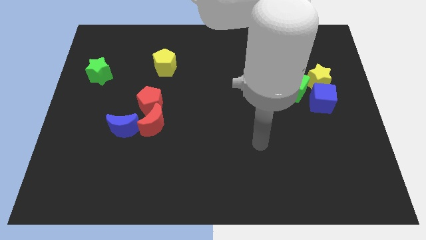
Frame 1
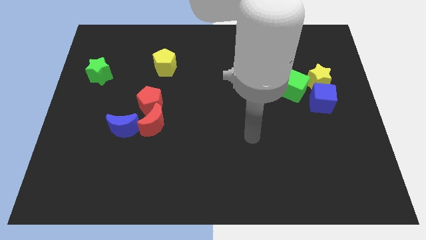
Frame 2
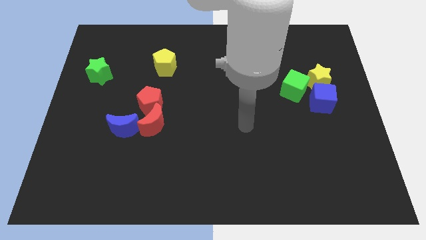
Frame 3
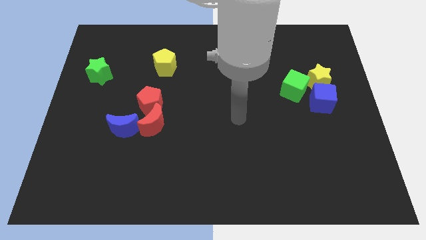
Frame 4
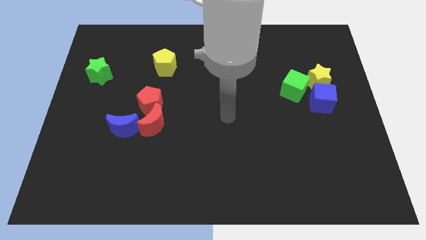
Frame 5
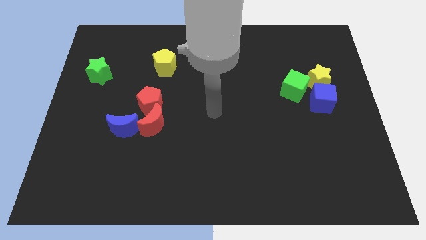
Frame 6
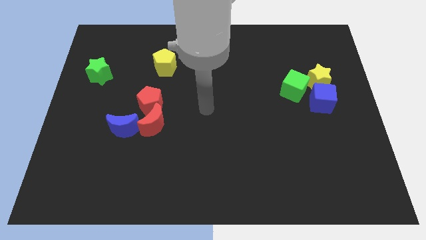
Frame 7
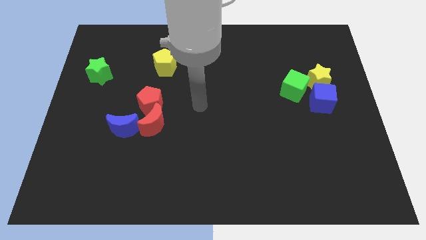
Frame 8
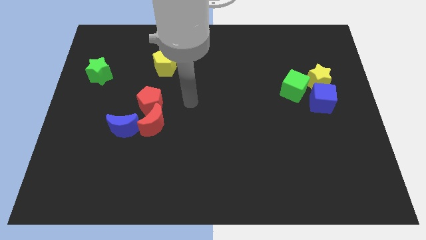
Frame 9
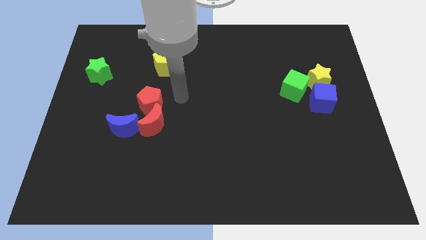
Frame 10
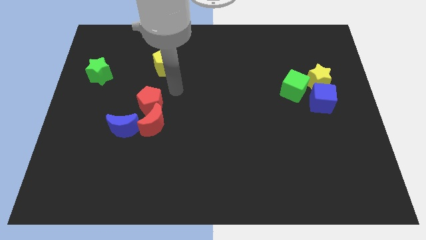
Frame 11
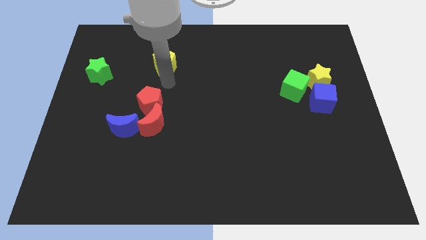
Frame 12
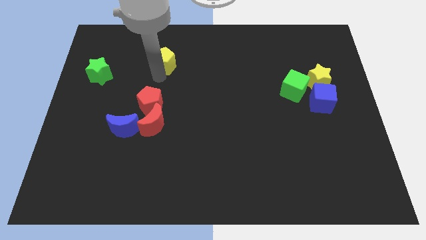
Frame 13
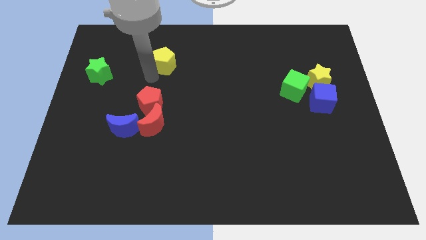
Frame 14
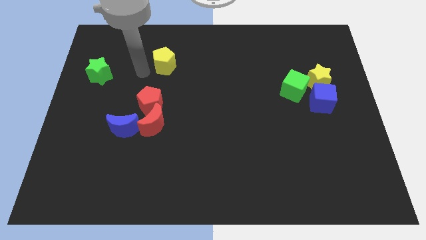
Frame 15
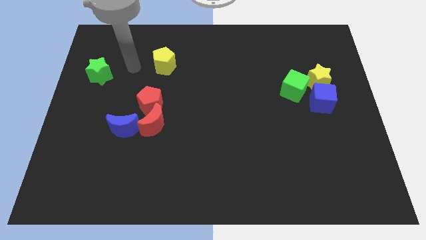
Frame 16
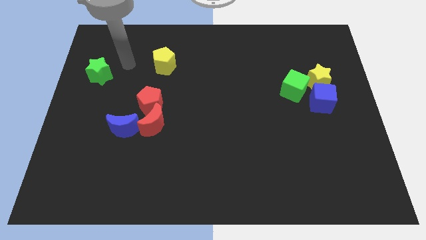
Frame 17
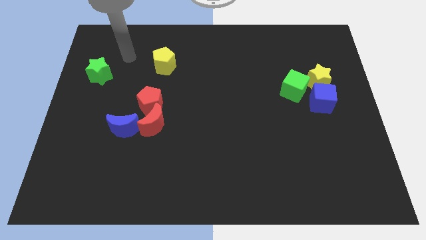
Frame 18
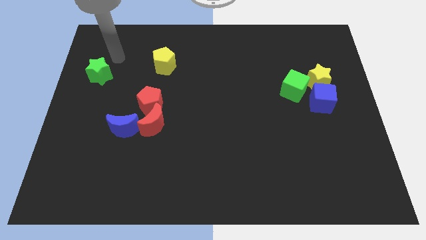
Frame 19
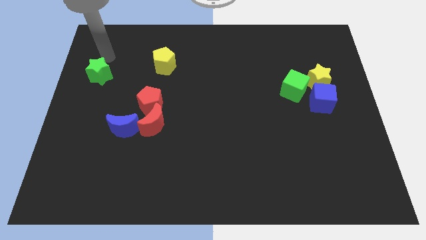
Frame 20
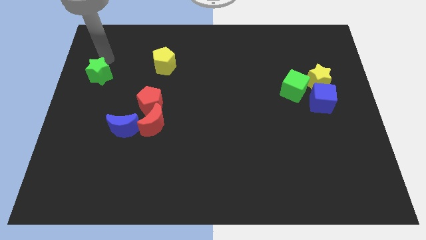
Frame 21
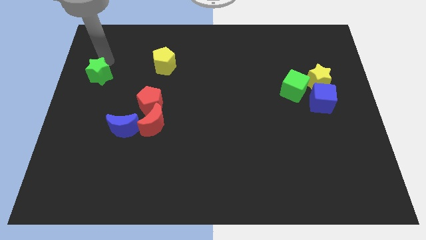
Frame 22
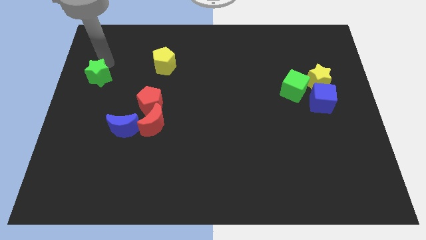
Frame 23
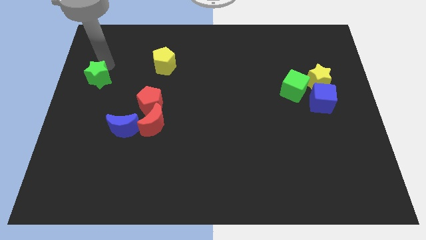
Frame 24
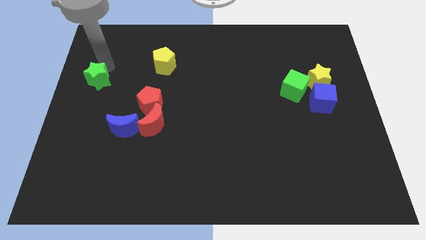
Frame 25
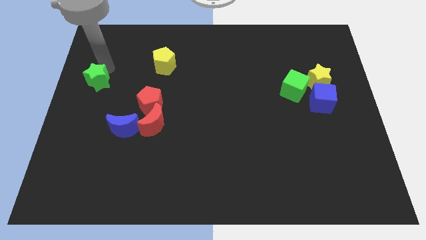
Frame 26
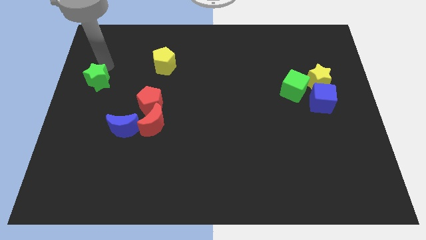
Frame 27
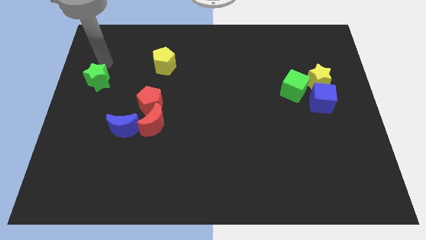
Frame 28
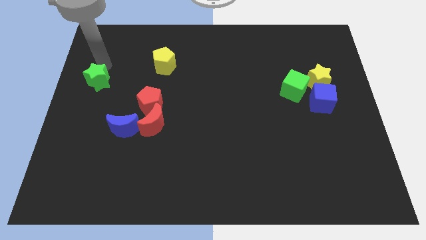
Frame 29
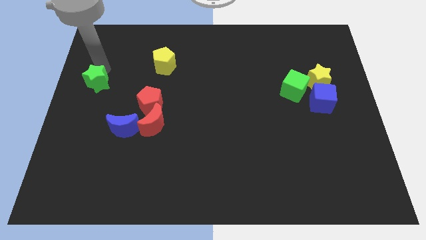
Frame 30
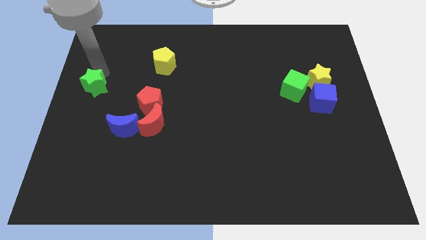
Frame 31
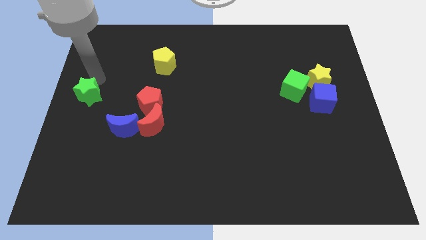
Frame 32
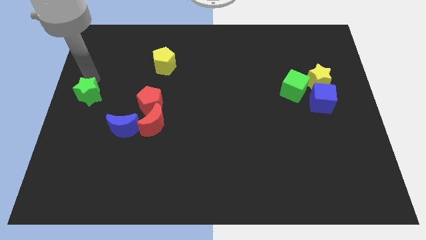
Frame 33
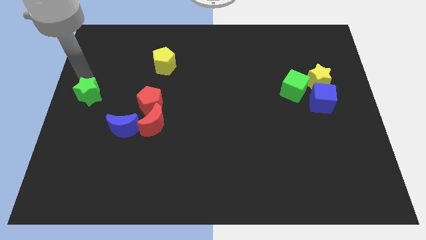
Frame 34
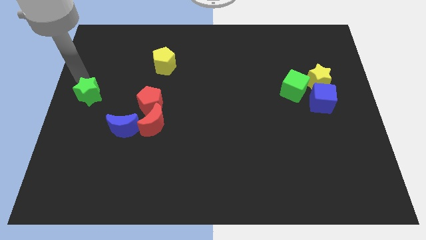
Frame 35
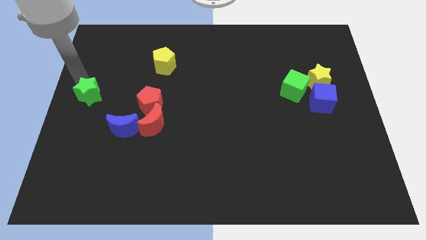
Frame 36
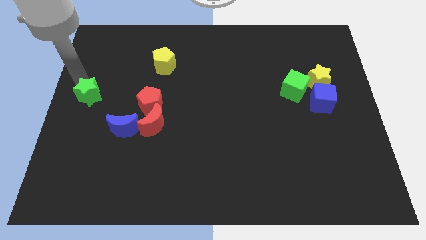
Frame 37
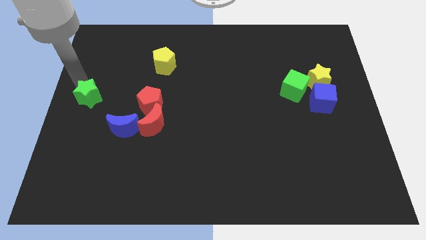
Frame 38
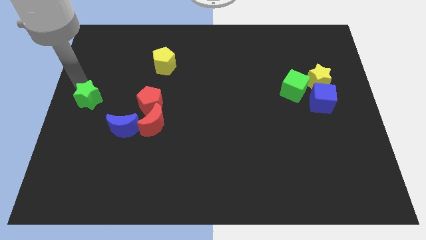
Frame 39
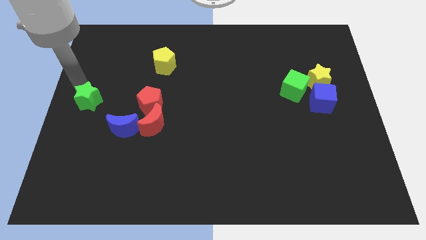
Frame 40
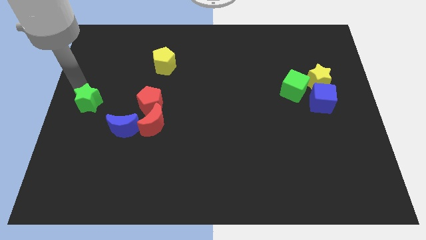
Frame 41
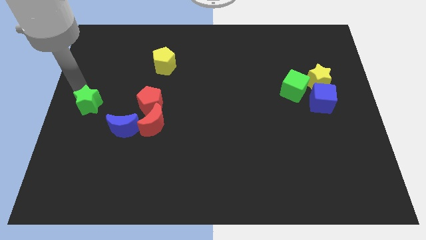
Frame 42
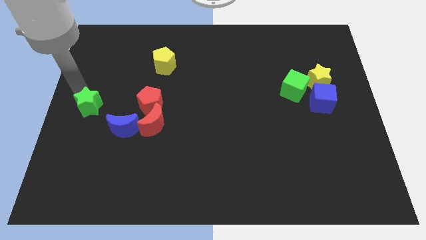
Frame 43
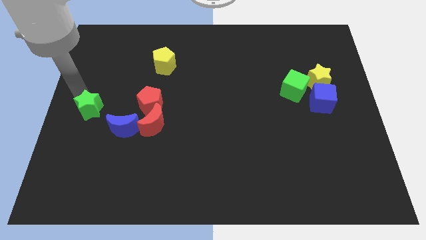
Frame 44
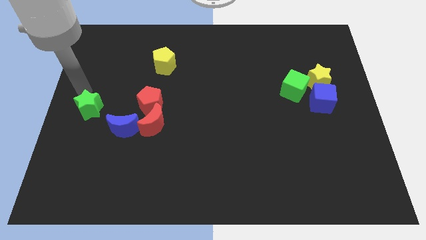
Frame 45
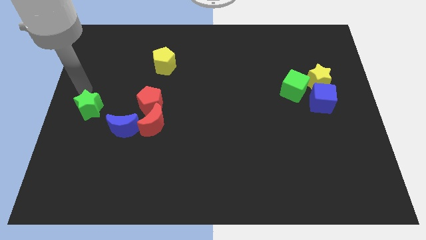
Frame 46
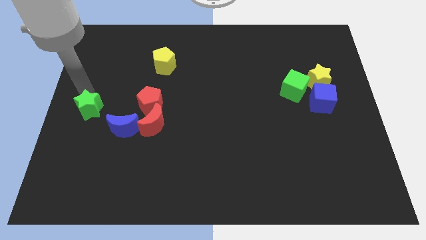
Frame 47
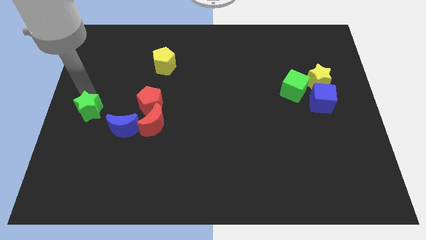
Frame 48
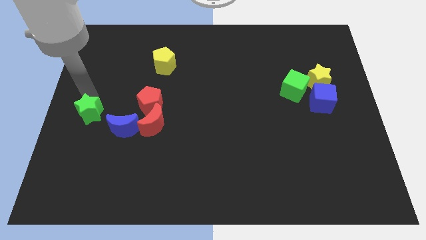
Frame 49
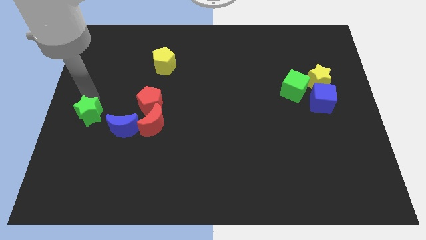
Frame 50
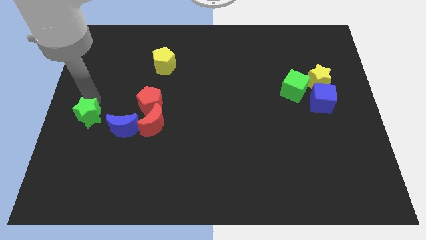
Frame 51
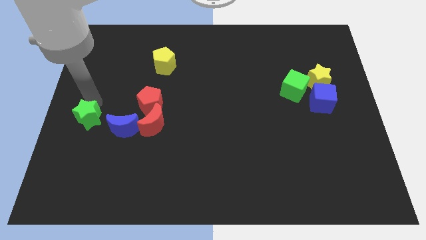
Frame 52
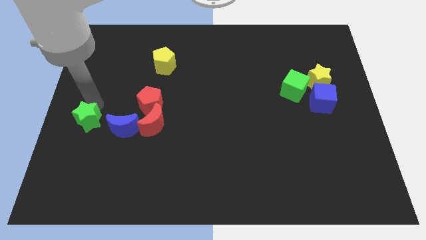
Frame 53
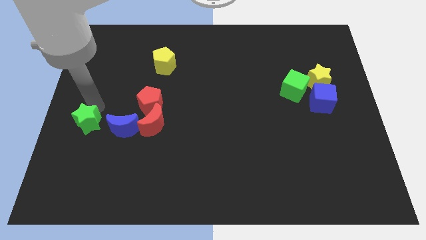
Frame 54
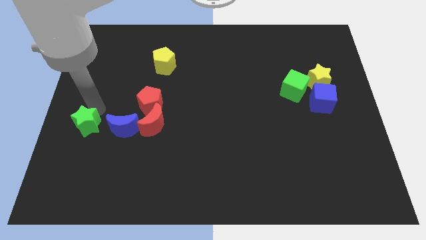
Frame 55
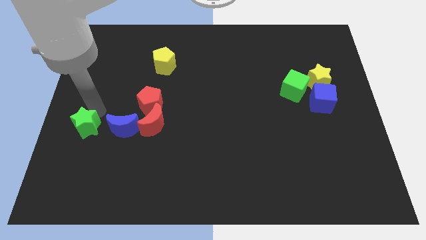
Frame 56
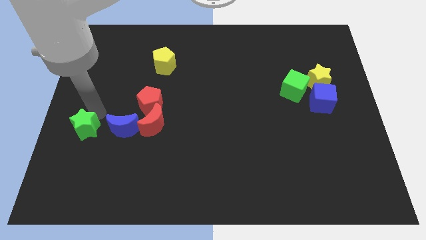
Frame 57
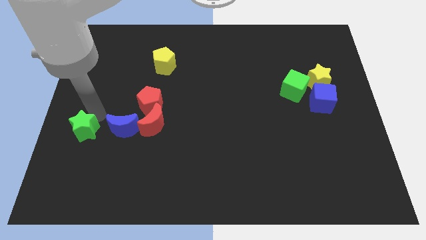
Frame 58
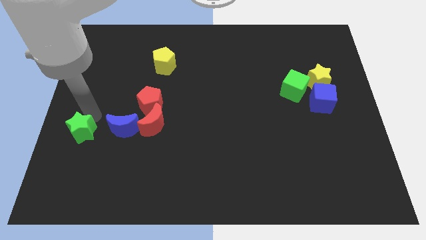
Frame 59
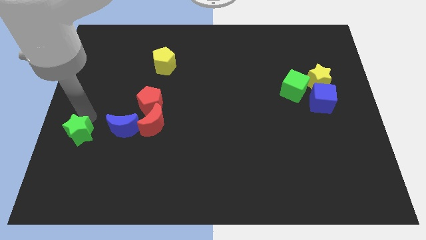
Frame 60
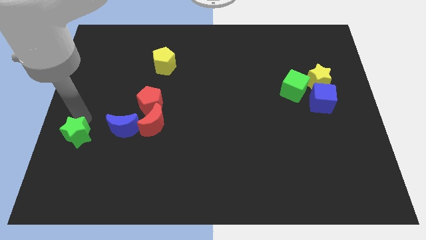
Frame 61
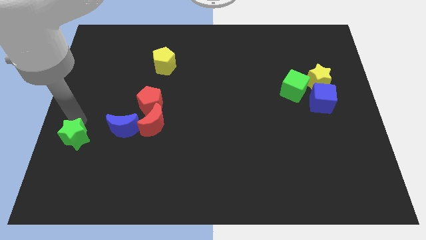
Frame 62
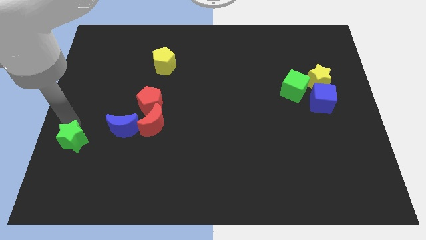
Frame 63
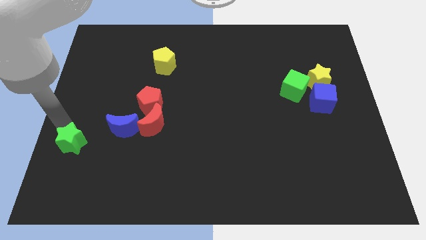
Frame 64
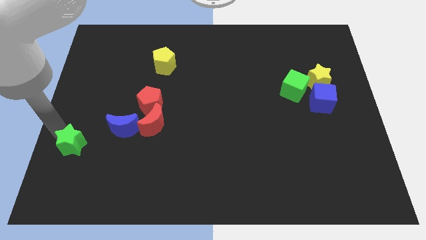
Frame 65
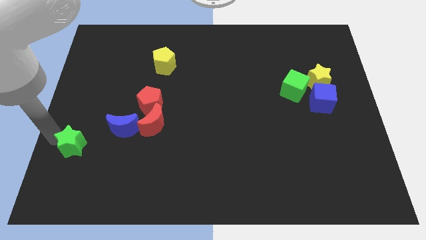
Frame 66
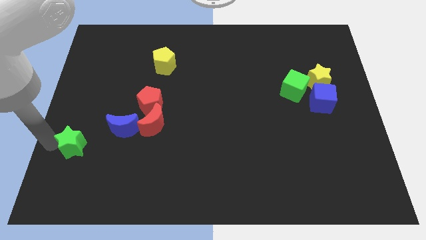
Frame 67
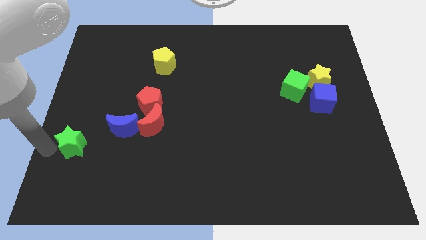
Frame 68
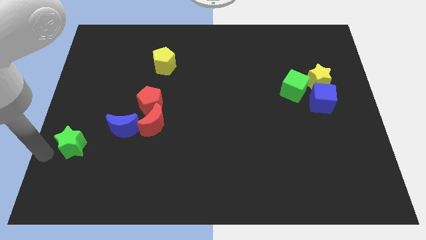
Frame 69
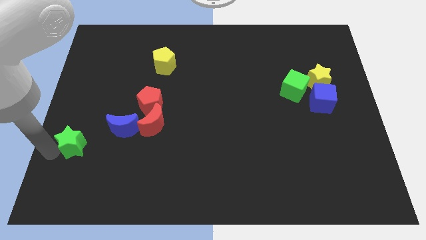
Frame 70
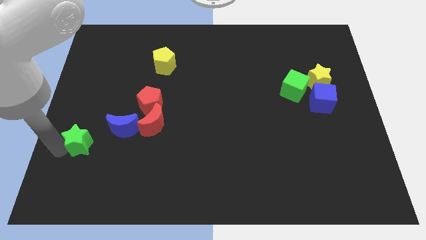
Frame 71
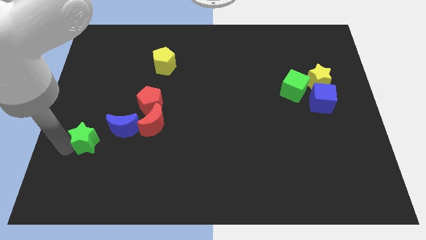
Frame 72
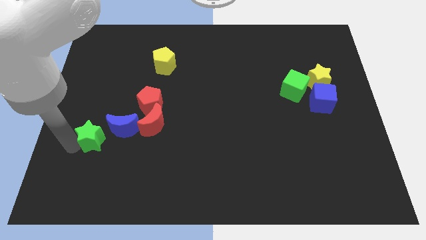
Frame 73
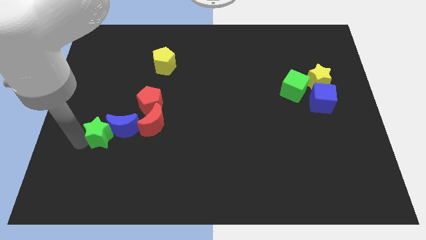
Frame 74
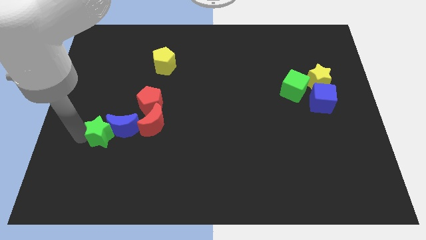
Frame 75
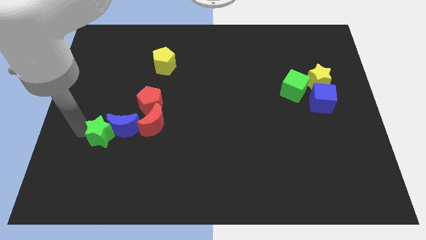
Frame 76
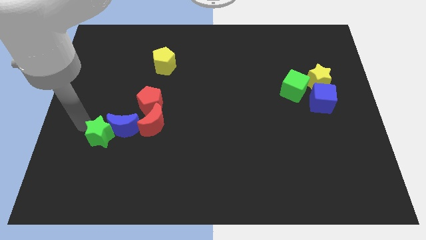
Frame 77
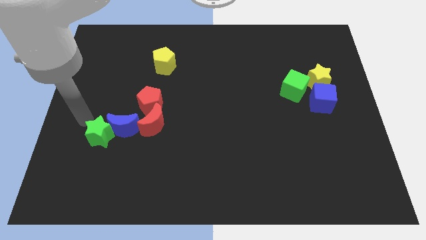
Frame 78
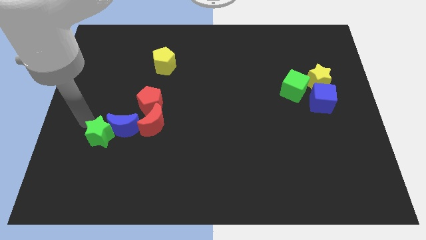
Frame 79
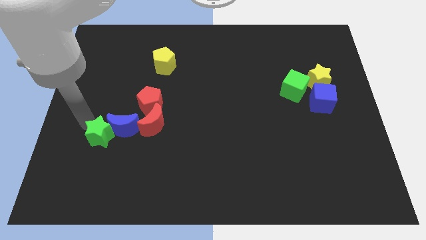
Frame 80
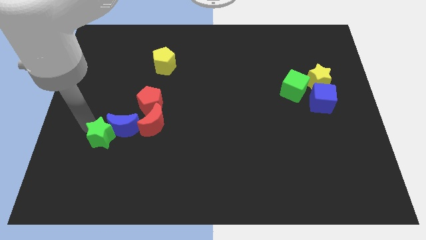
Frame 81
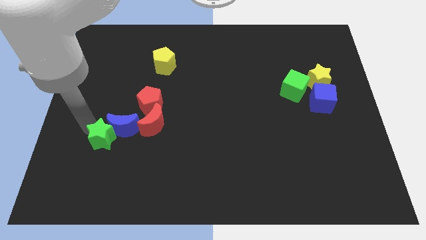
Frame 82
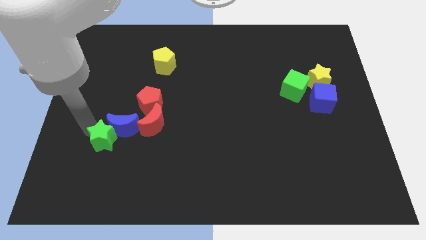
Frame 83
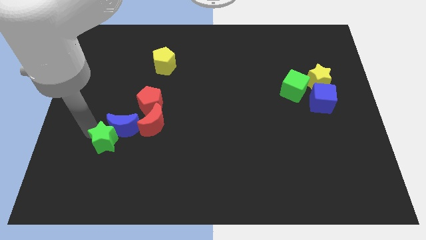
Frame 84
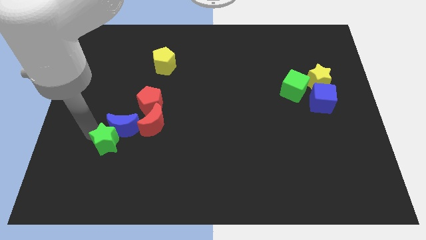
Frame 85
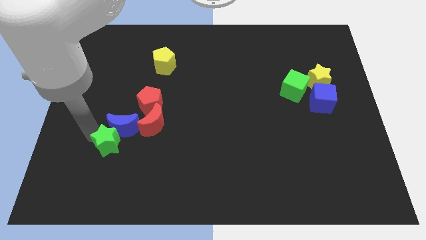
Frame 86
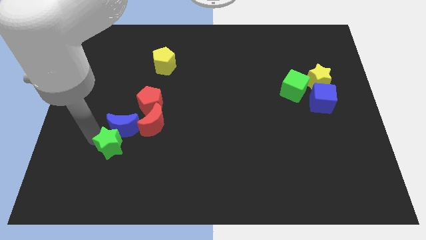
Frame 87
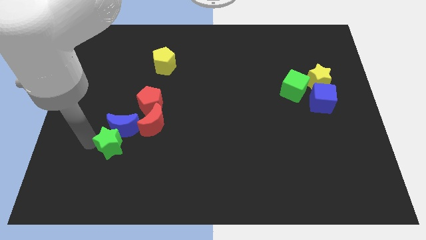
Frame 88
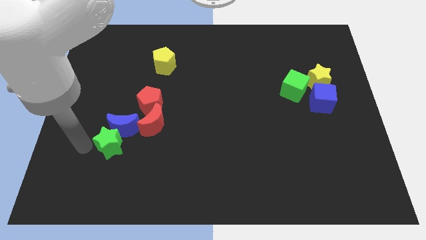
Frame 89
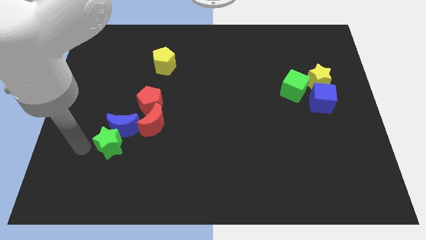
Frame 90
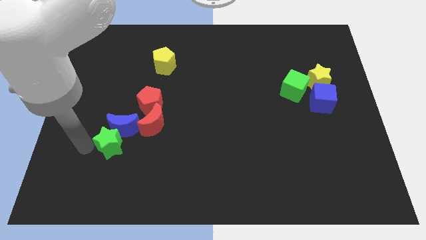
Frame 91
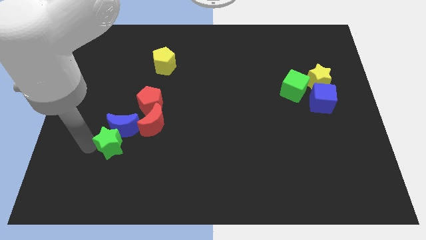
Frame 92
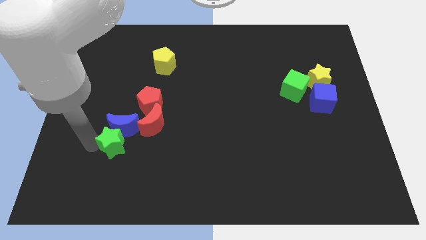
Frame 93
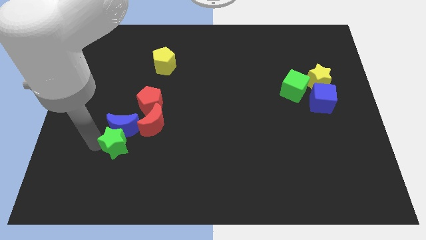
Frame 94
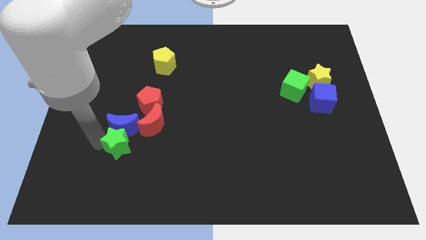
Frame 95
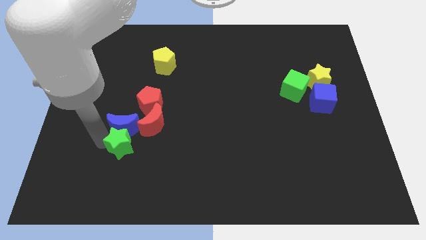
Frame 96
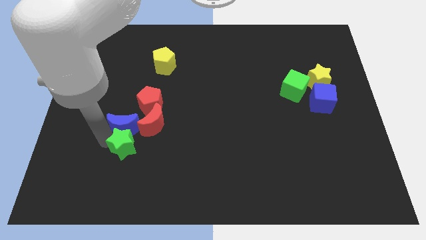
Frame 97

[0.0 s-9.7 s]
move the green star to the bottom side of the red pentagon
